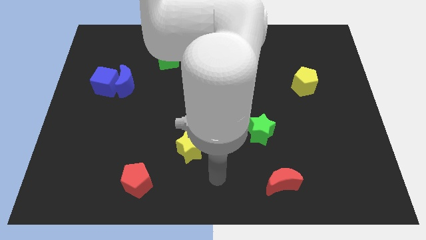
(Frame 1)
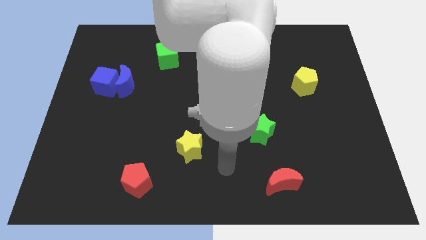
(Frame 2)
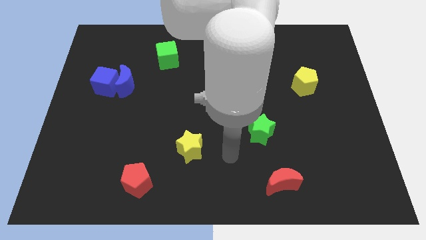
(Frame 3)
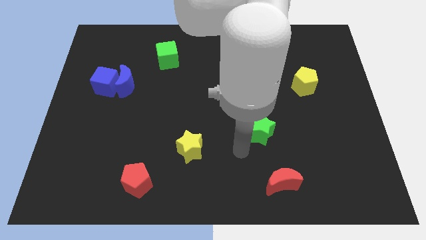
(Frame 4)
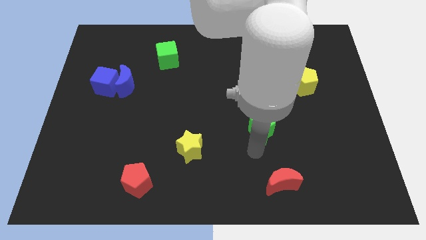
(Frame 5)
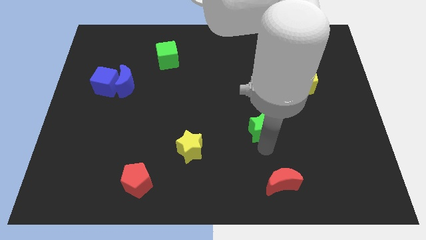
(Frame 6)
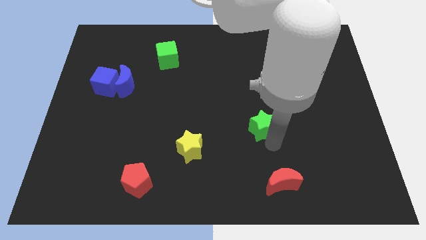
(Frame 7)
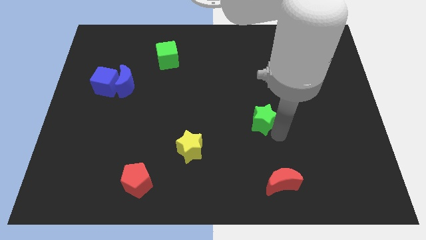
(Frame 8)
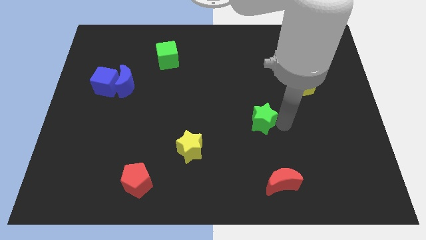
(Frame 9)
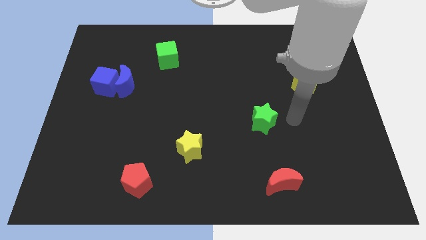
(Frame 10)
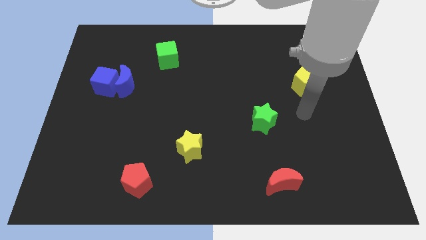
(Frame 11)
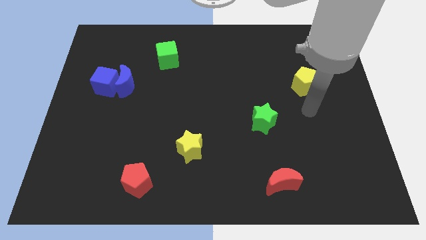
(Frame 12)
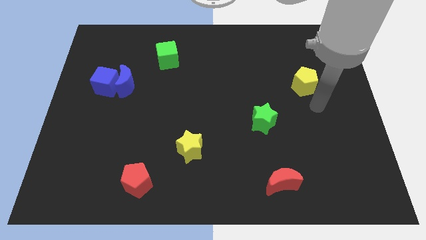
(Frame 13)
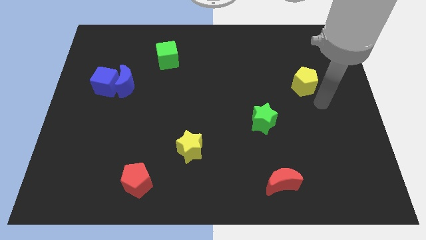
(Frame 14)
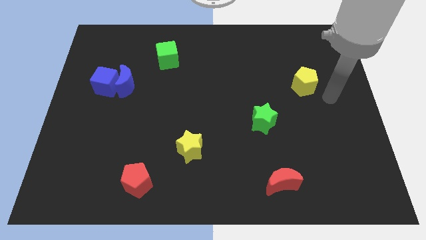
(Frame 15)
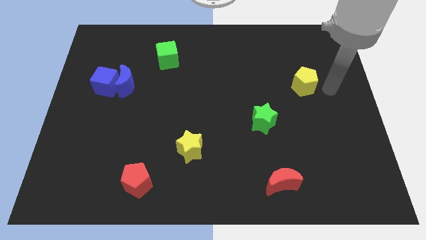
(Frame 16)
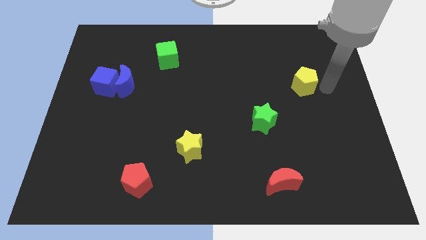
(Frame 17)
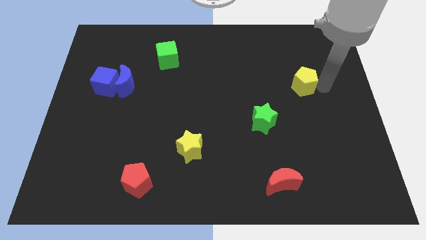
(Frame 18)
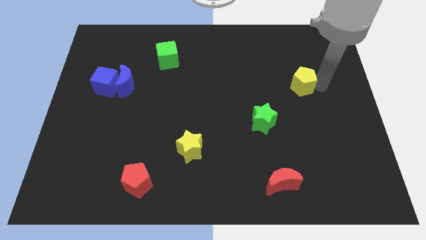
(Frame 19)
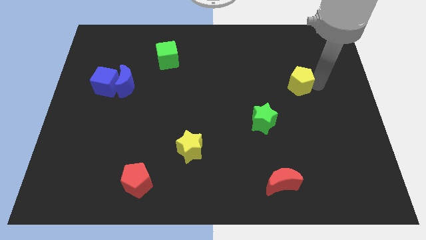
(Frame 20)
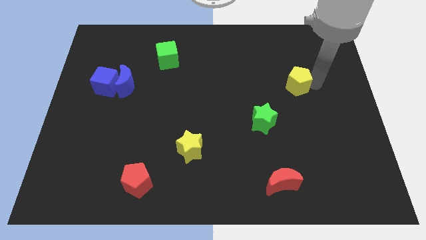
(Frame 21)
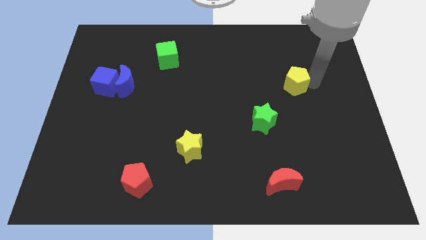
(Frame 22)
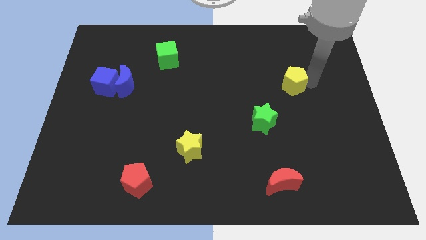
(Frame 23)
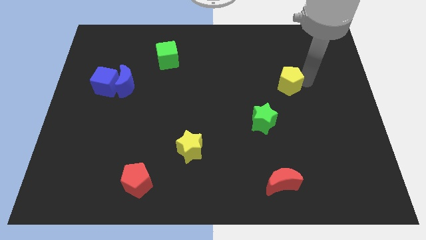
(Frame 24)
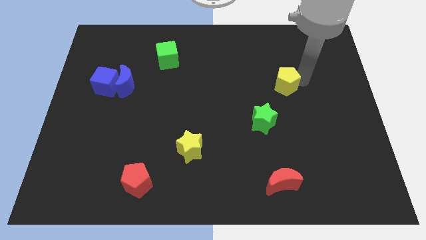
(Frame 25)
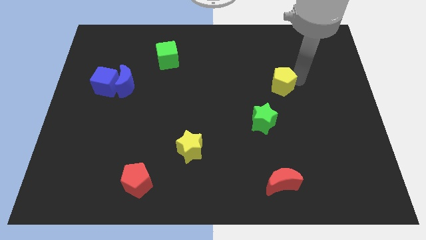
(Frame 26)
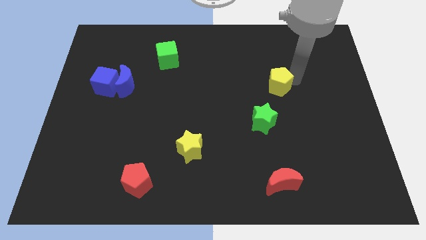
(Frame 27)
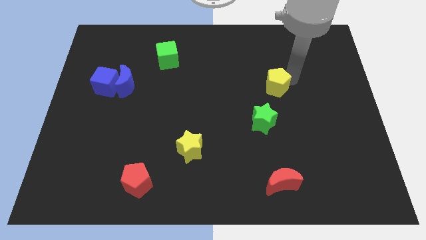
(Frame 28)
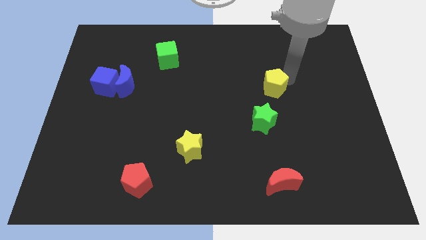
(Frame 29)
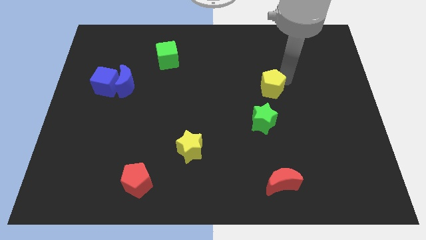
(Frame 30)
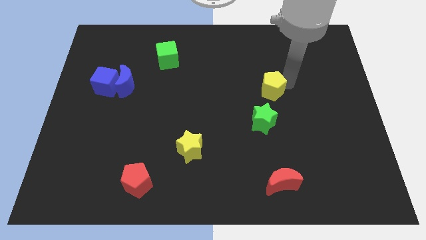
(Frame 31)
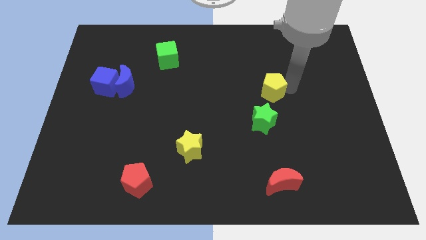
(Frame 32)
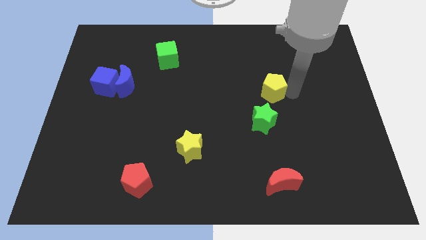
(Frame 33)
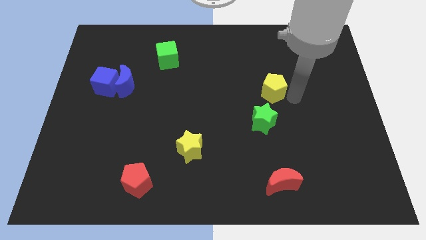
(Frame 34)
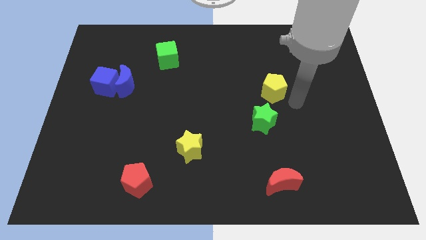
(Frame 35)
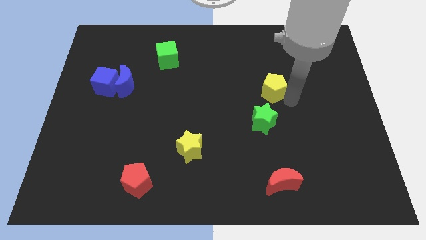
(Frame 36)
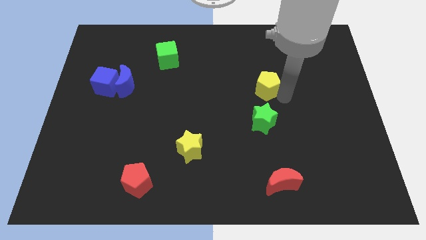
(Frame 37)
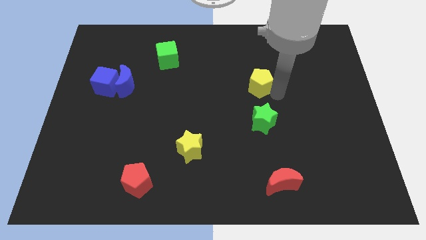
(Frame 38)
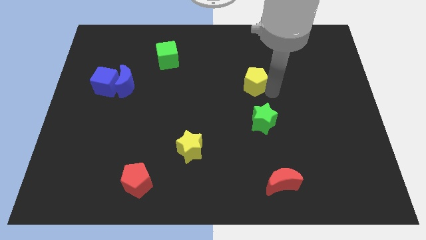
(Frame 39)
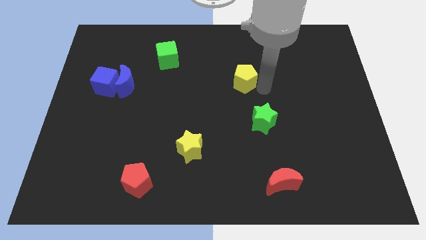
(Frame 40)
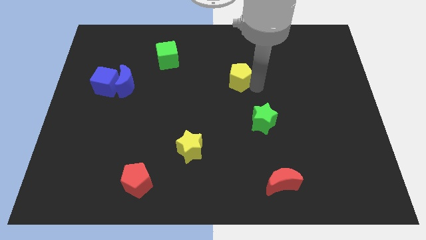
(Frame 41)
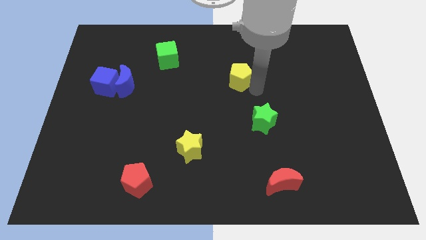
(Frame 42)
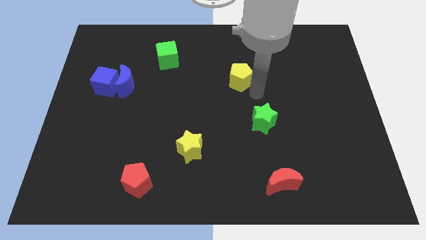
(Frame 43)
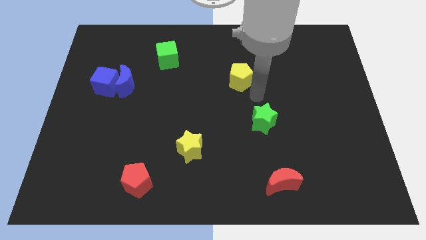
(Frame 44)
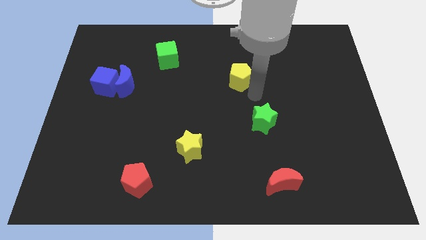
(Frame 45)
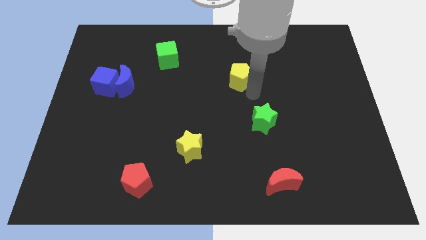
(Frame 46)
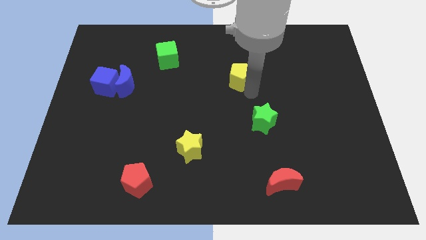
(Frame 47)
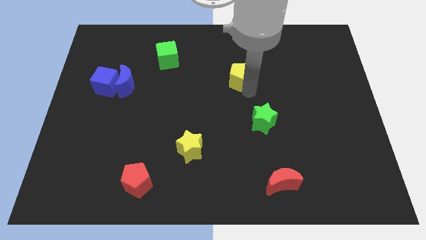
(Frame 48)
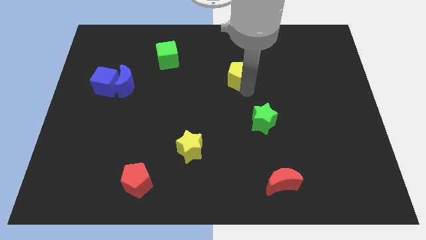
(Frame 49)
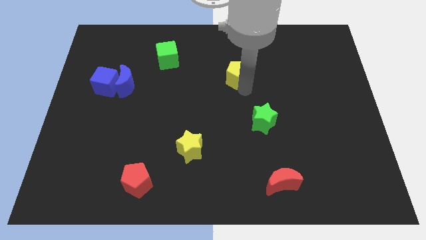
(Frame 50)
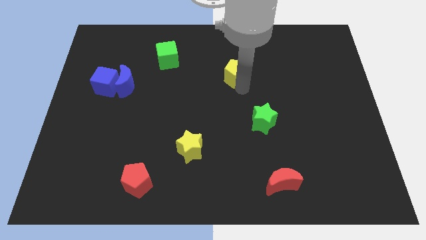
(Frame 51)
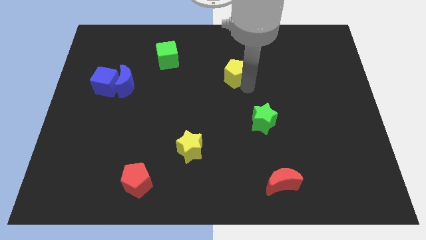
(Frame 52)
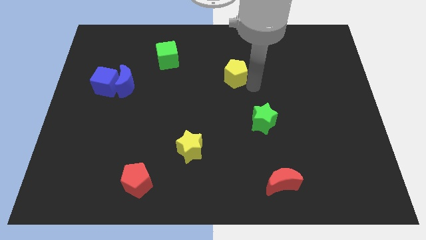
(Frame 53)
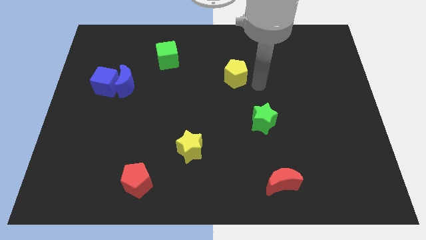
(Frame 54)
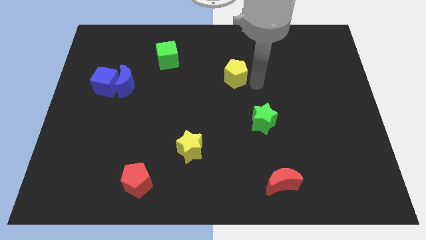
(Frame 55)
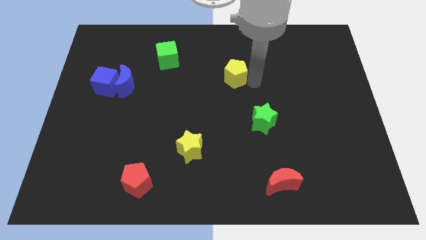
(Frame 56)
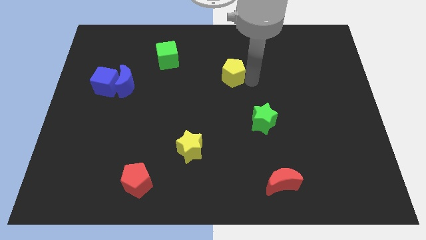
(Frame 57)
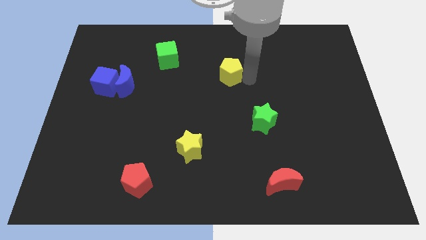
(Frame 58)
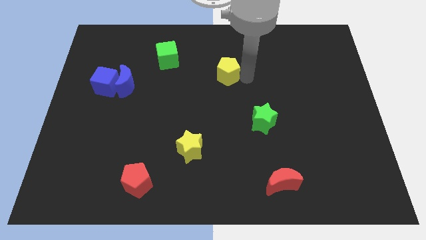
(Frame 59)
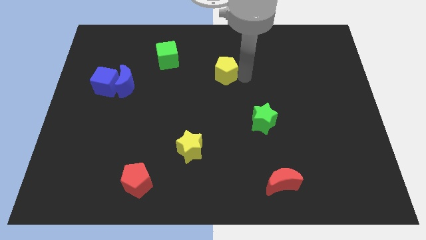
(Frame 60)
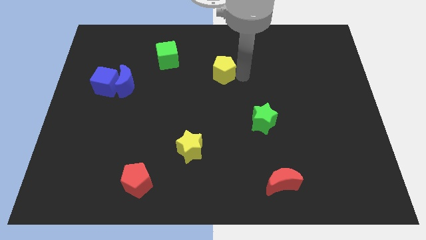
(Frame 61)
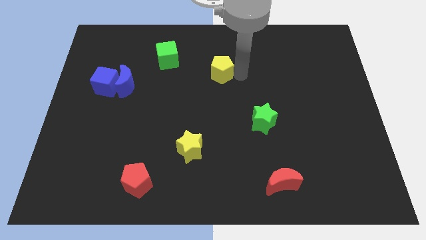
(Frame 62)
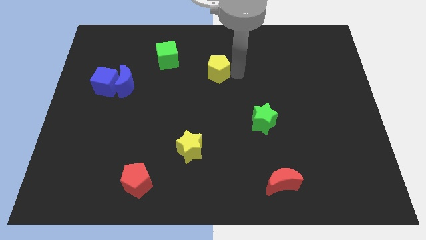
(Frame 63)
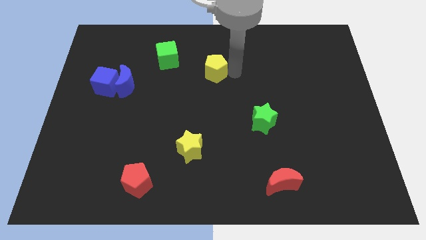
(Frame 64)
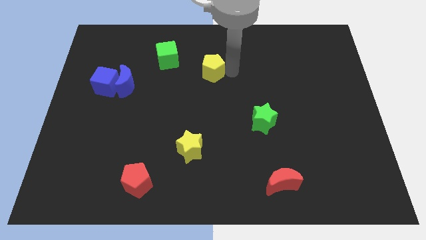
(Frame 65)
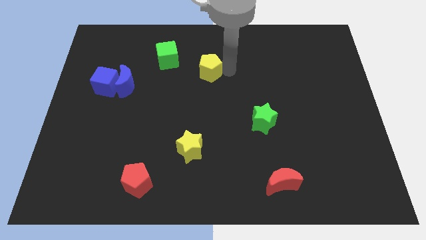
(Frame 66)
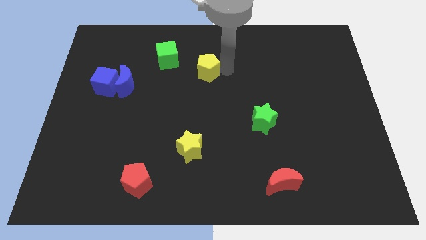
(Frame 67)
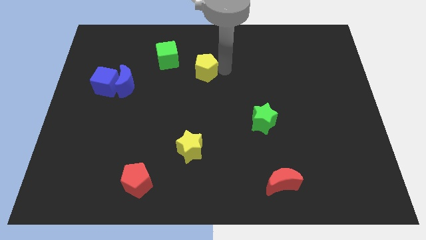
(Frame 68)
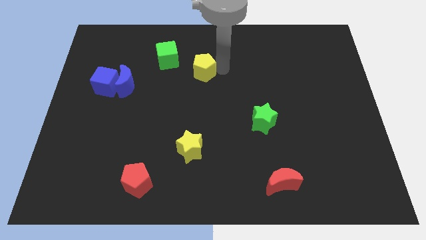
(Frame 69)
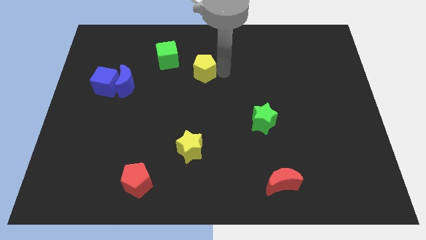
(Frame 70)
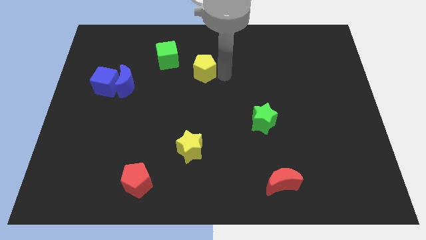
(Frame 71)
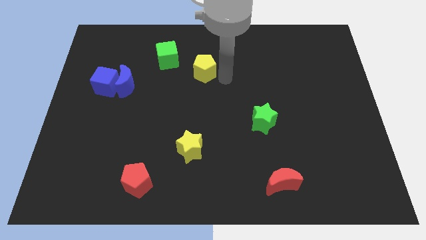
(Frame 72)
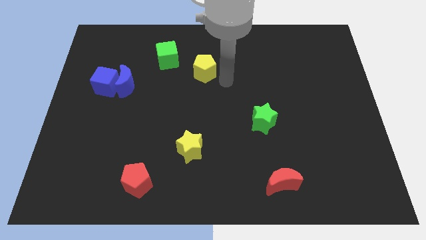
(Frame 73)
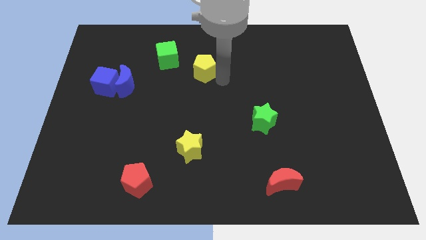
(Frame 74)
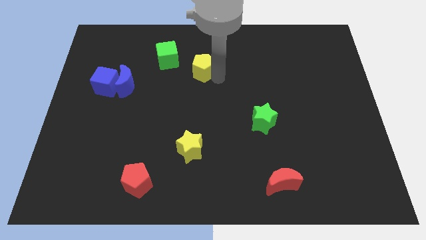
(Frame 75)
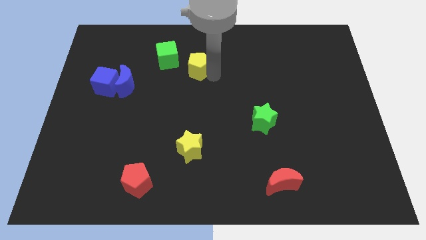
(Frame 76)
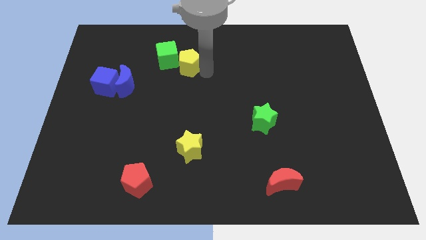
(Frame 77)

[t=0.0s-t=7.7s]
push the yellow pentagon close to the green cube
